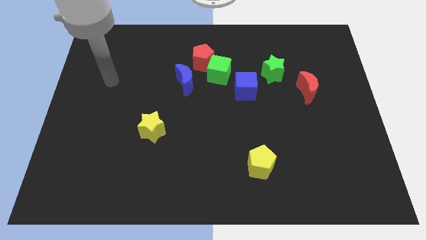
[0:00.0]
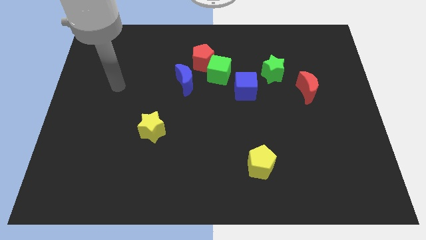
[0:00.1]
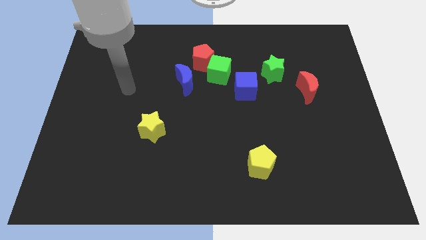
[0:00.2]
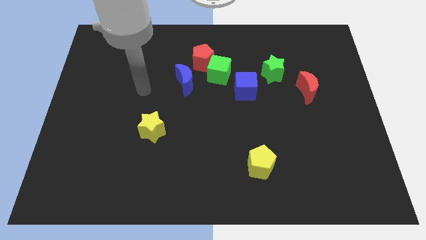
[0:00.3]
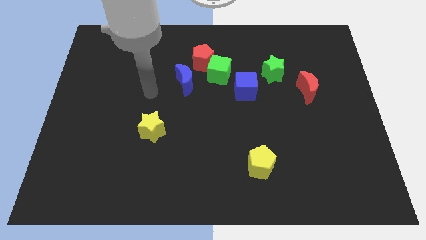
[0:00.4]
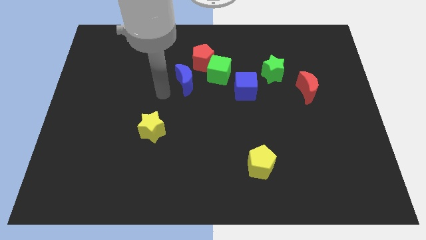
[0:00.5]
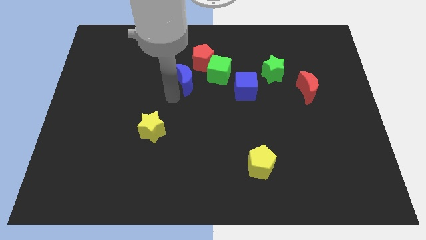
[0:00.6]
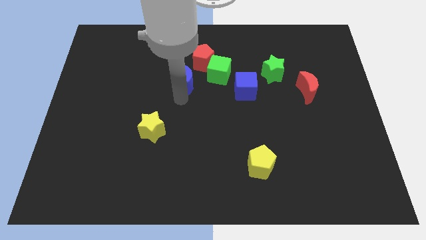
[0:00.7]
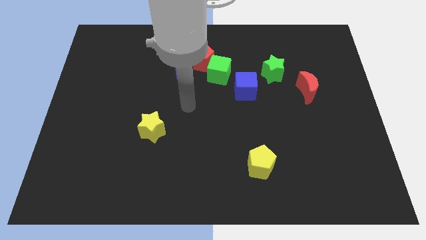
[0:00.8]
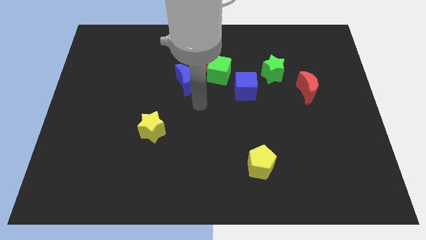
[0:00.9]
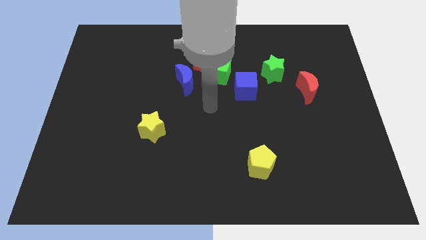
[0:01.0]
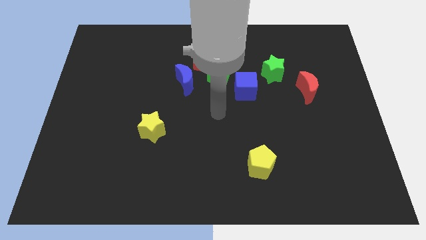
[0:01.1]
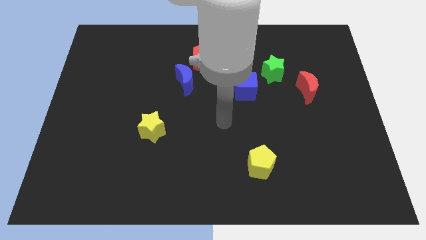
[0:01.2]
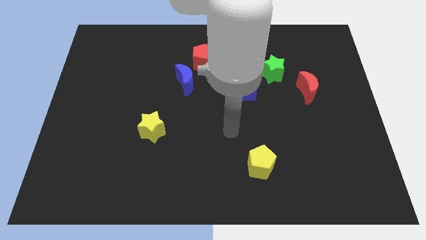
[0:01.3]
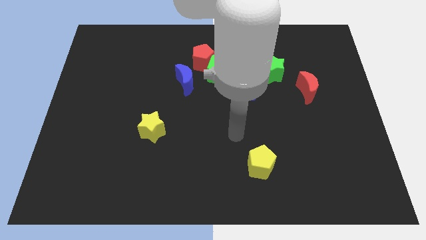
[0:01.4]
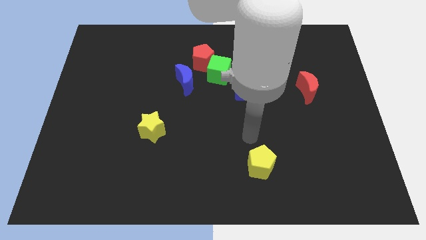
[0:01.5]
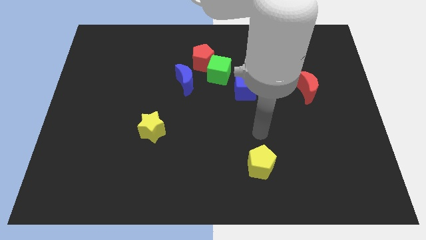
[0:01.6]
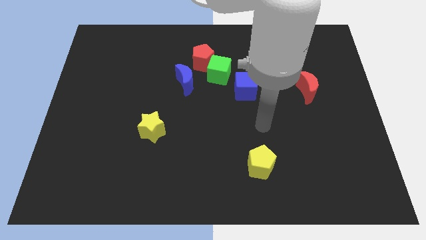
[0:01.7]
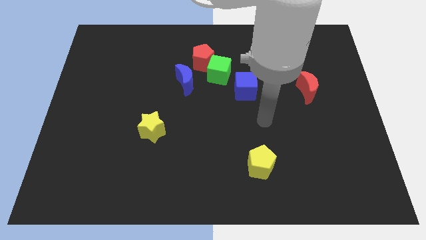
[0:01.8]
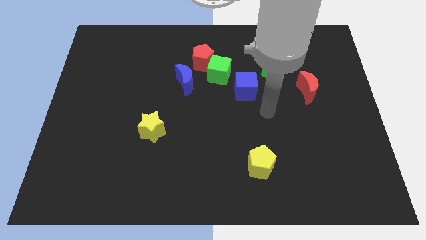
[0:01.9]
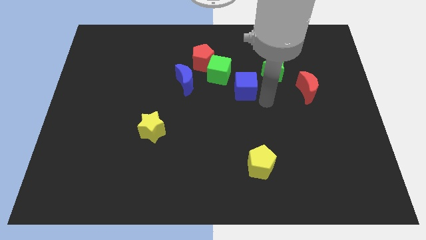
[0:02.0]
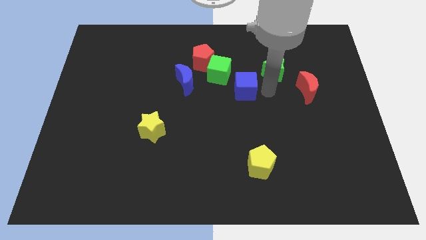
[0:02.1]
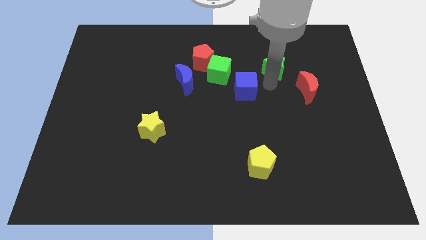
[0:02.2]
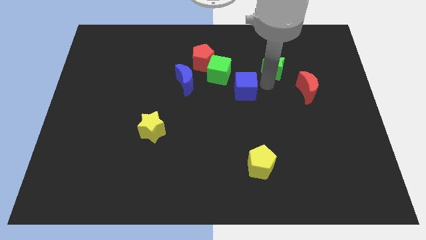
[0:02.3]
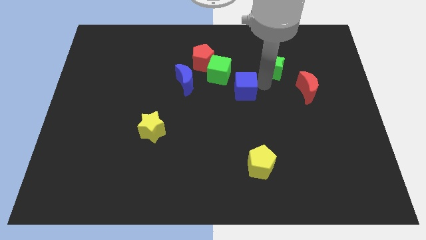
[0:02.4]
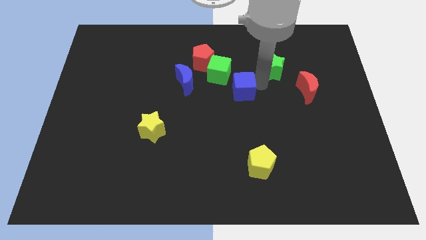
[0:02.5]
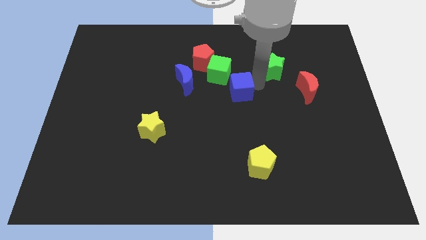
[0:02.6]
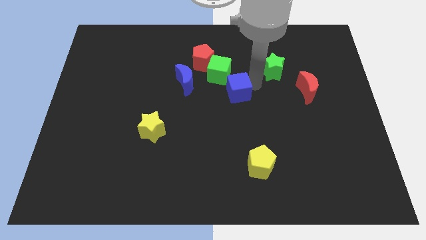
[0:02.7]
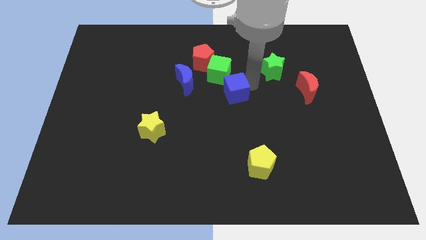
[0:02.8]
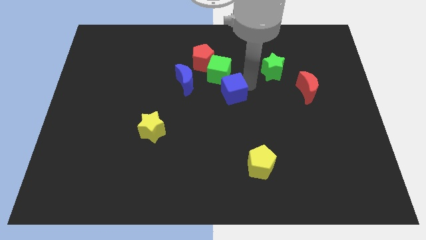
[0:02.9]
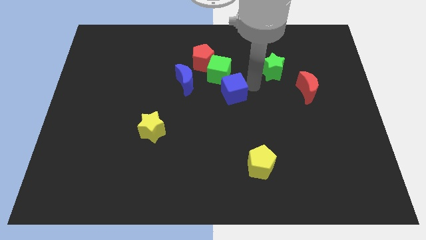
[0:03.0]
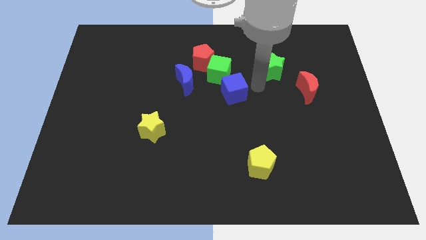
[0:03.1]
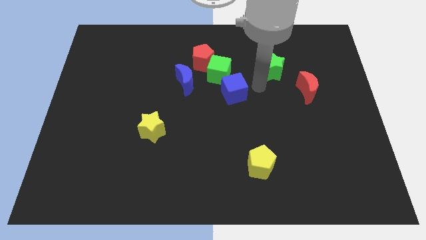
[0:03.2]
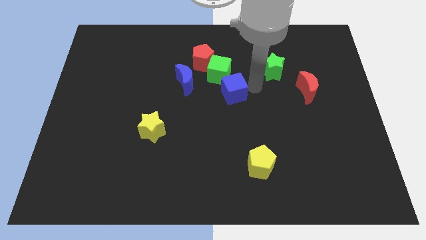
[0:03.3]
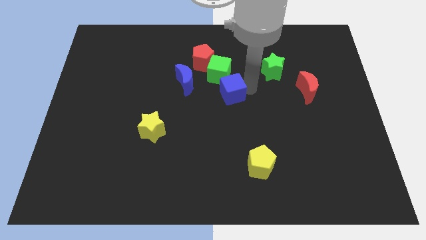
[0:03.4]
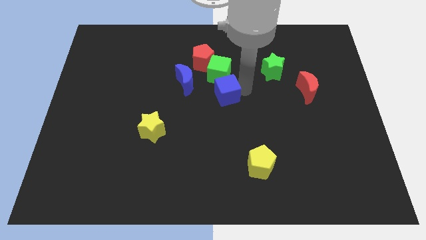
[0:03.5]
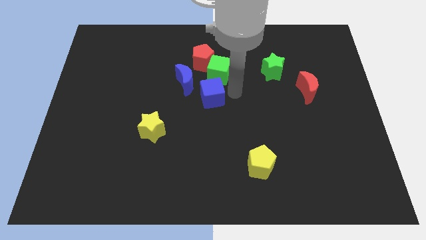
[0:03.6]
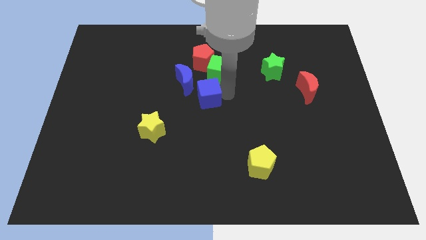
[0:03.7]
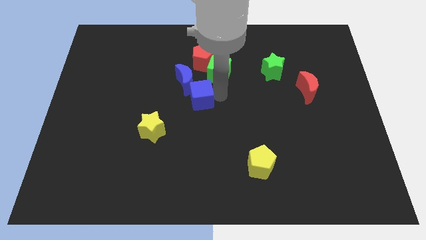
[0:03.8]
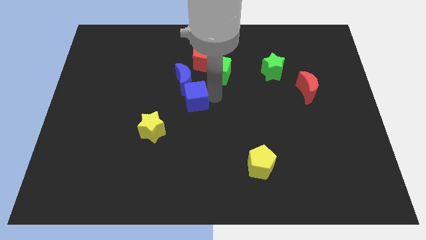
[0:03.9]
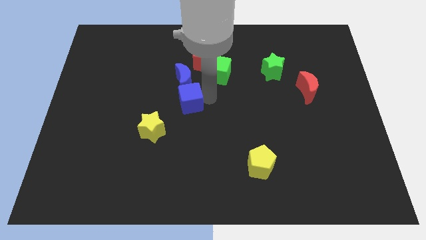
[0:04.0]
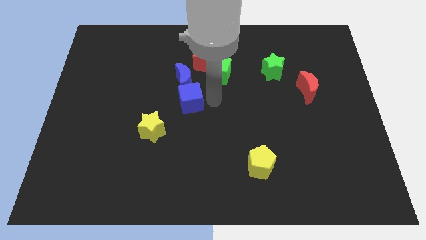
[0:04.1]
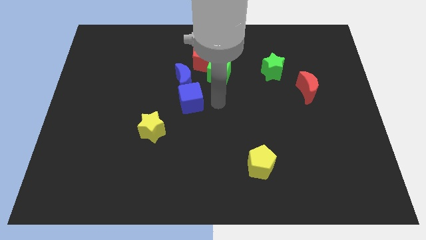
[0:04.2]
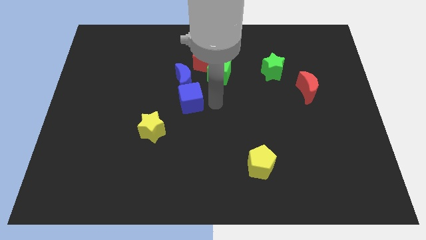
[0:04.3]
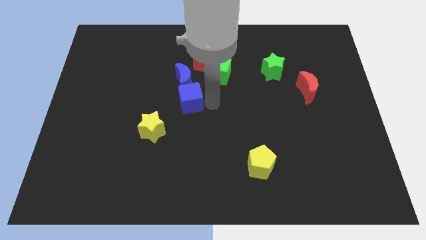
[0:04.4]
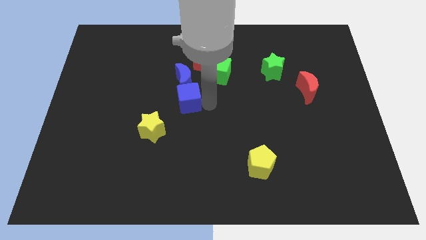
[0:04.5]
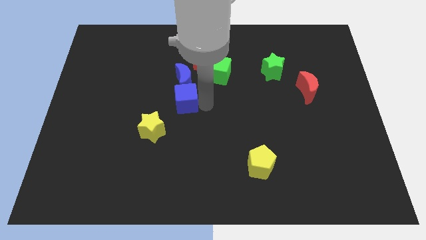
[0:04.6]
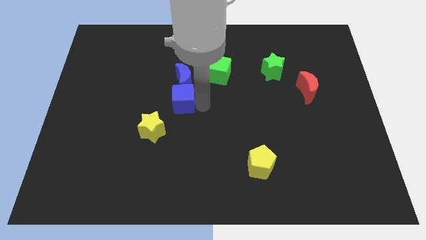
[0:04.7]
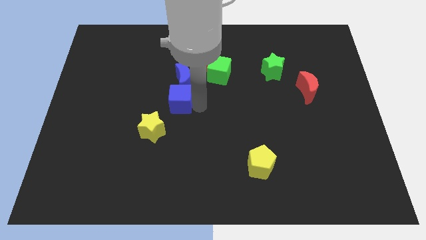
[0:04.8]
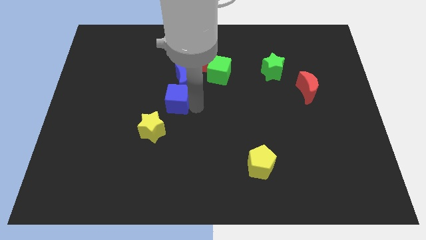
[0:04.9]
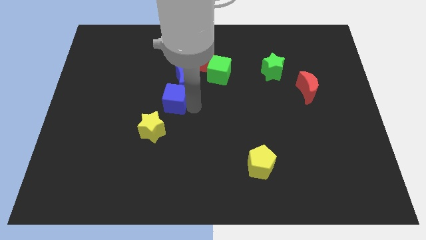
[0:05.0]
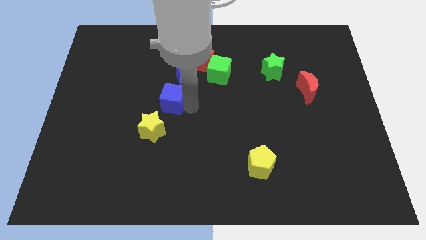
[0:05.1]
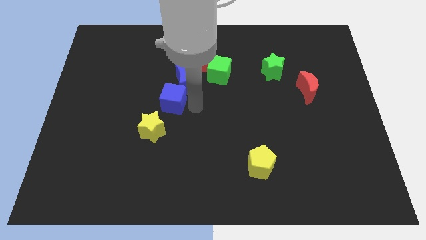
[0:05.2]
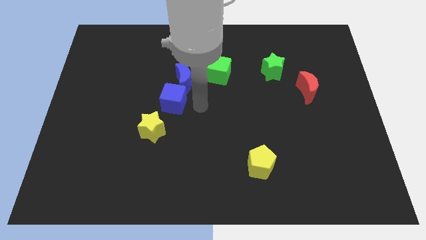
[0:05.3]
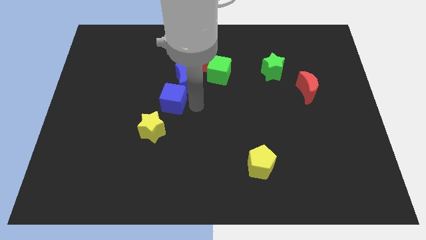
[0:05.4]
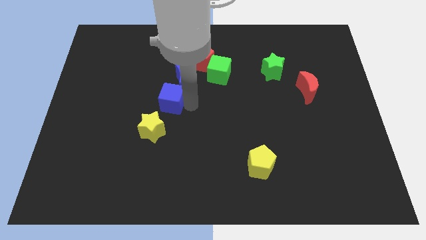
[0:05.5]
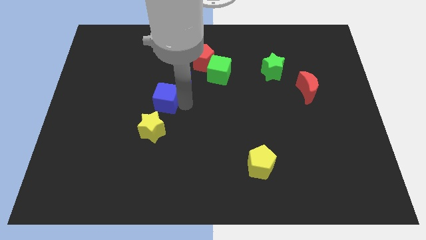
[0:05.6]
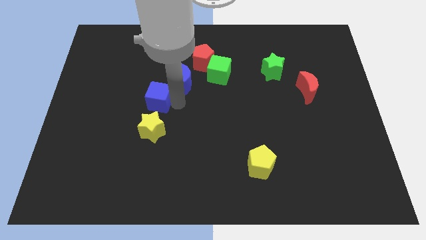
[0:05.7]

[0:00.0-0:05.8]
slide the blue cube to the left

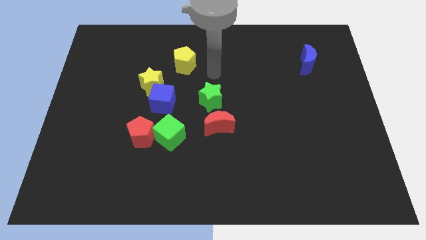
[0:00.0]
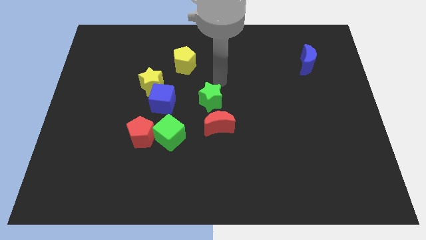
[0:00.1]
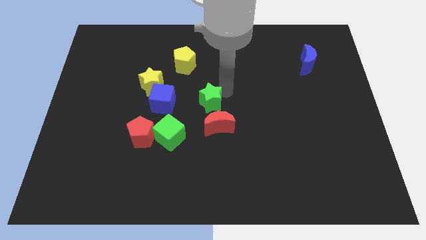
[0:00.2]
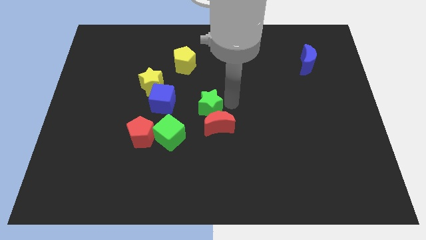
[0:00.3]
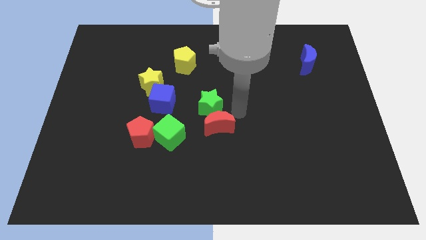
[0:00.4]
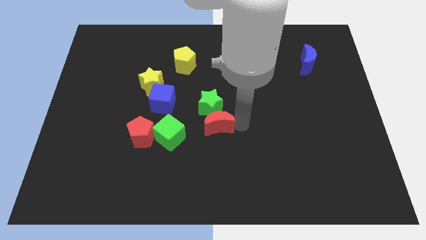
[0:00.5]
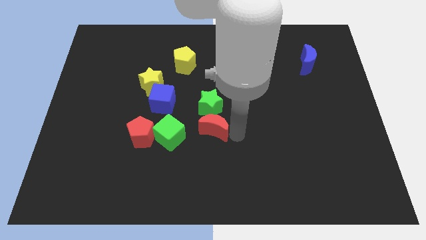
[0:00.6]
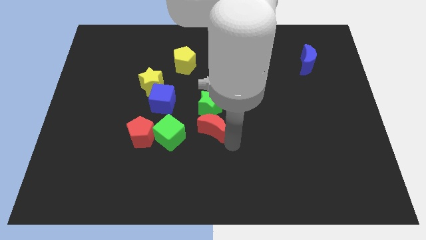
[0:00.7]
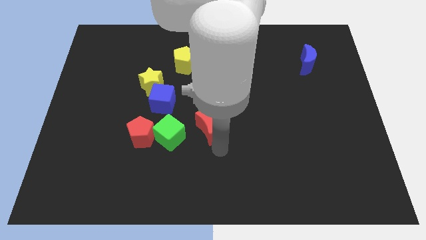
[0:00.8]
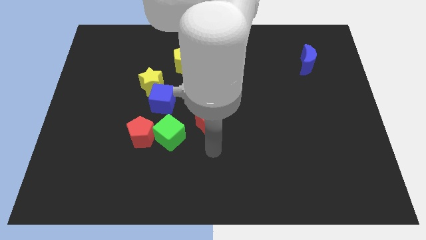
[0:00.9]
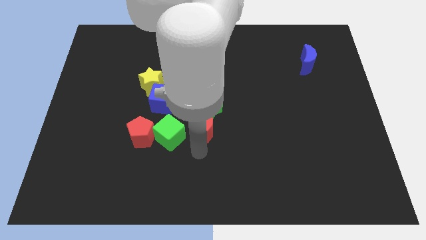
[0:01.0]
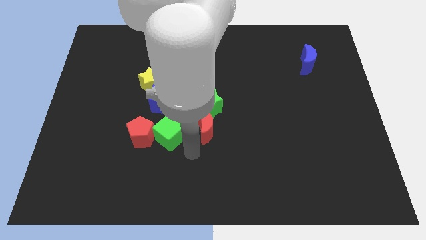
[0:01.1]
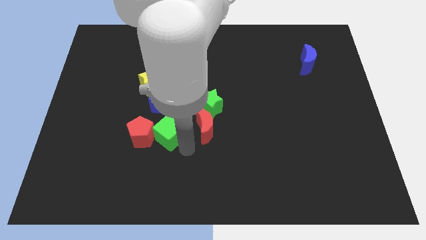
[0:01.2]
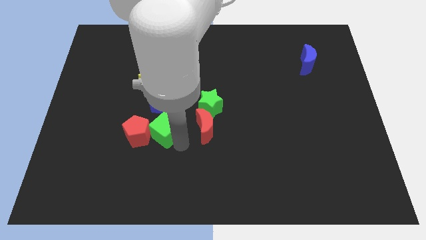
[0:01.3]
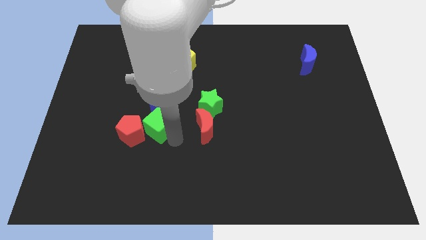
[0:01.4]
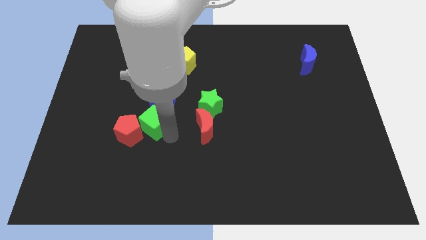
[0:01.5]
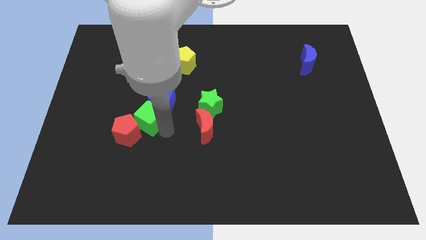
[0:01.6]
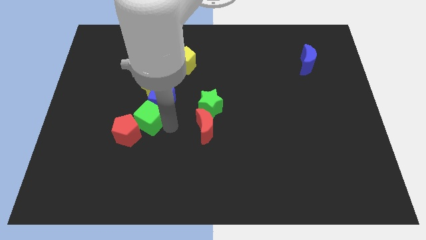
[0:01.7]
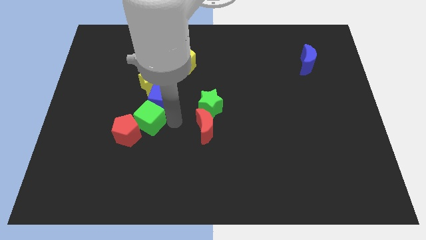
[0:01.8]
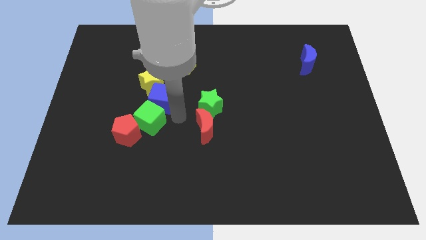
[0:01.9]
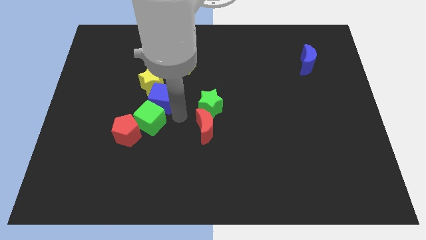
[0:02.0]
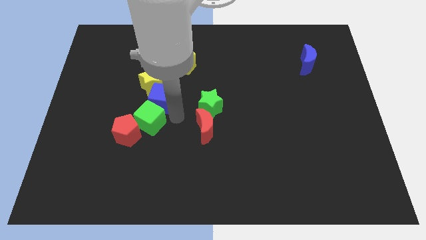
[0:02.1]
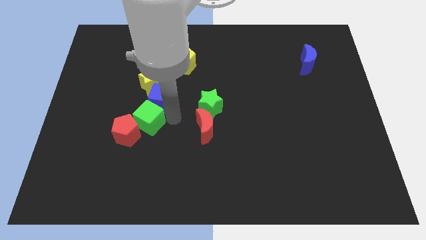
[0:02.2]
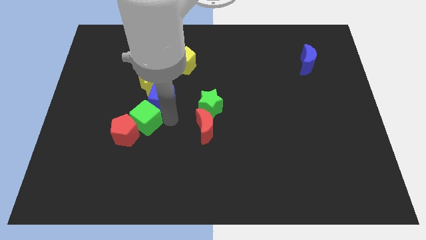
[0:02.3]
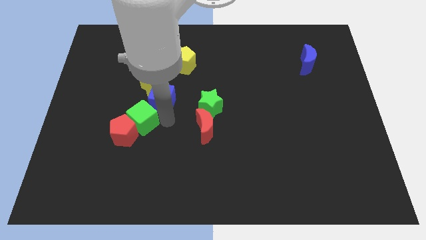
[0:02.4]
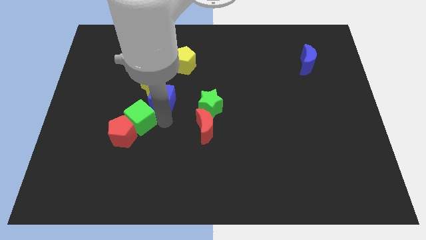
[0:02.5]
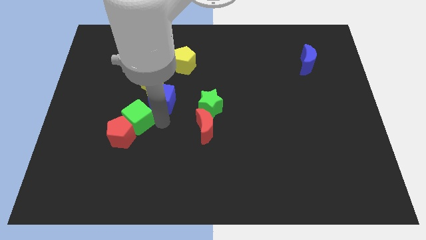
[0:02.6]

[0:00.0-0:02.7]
slide the green cube somewhat left
